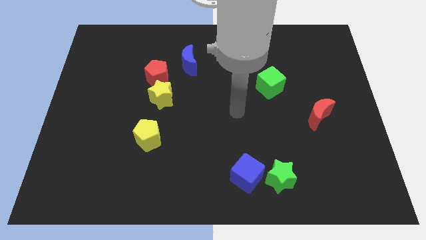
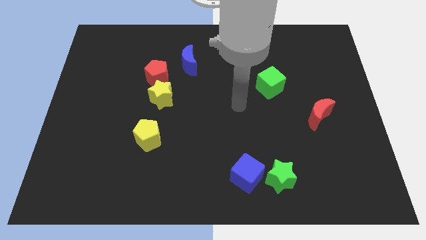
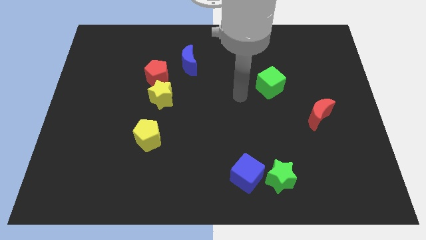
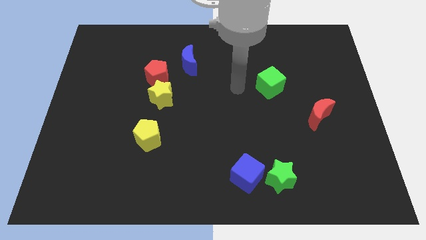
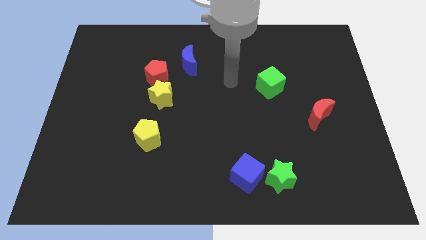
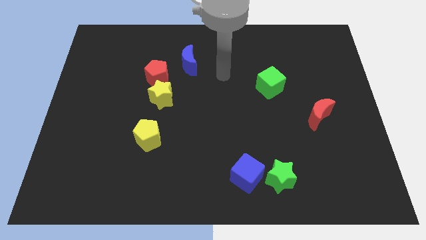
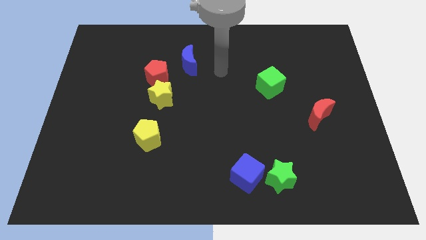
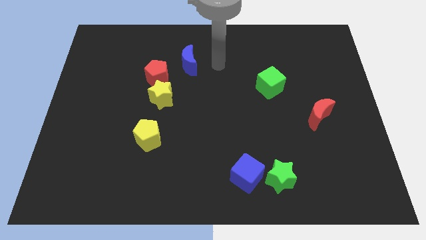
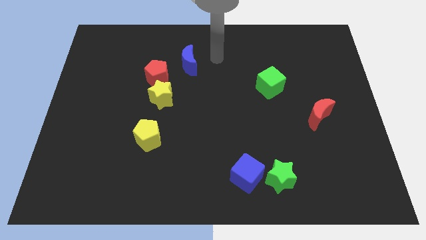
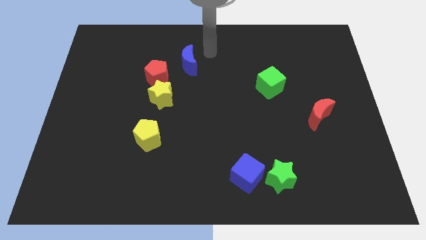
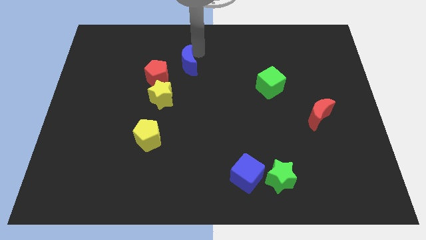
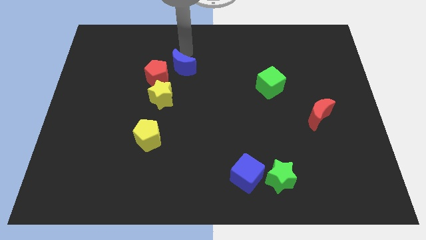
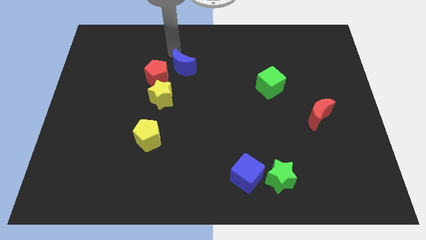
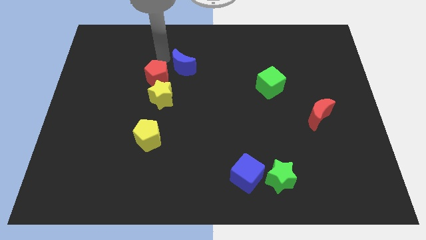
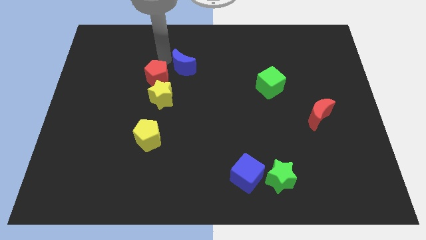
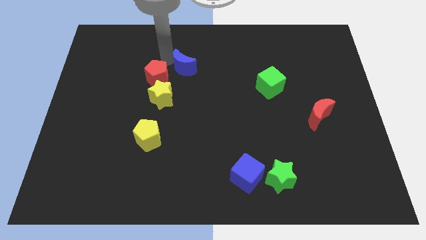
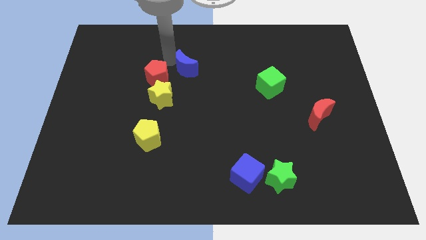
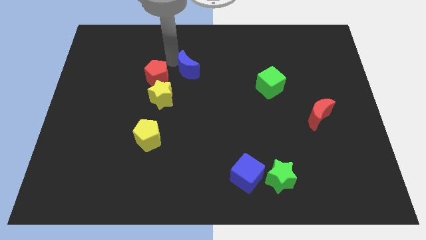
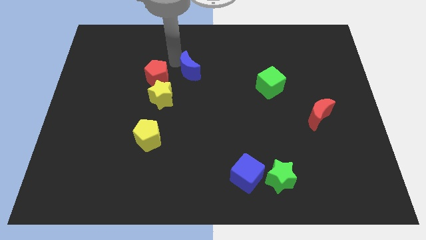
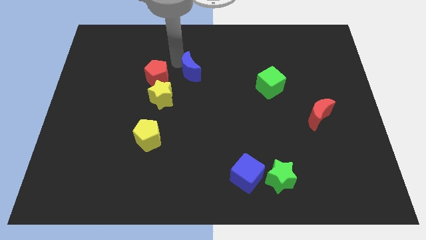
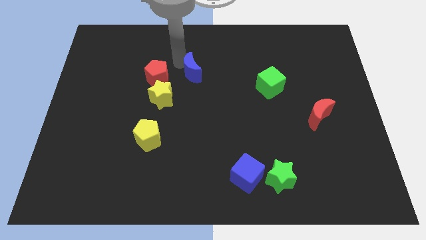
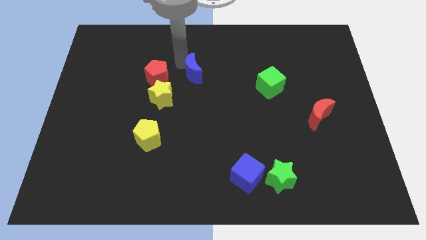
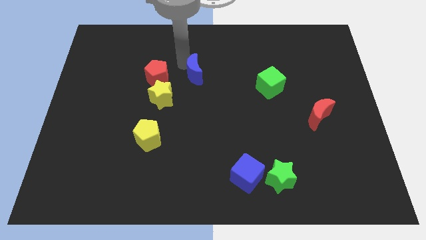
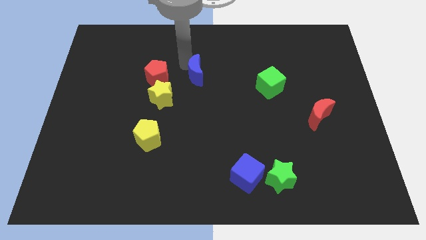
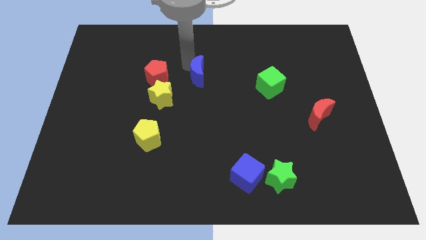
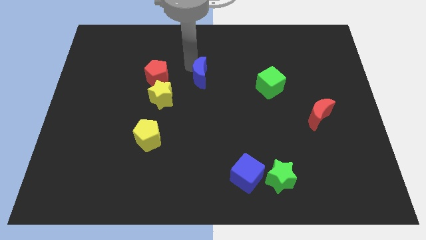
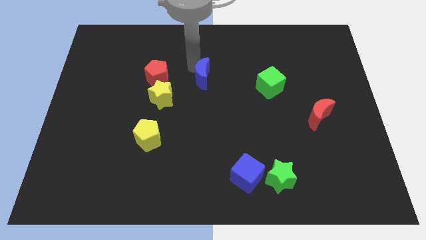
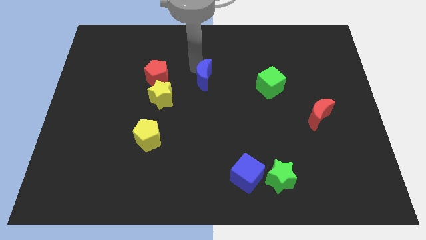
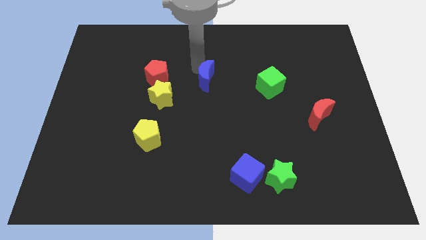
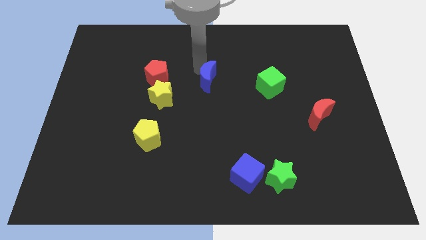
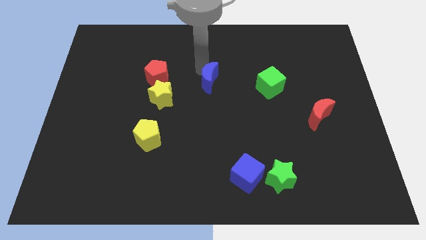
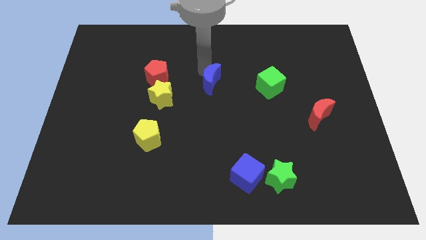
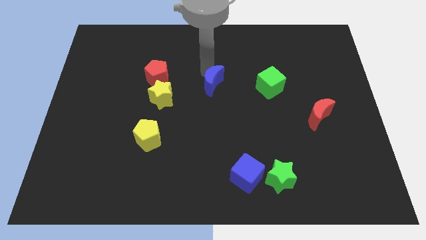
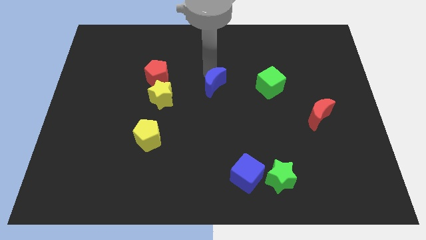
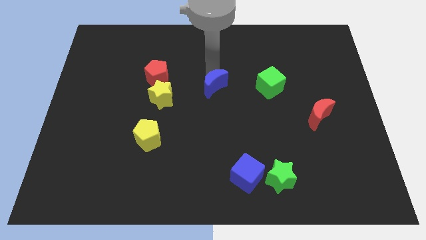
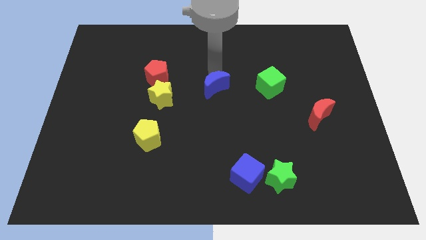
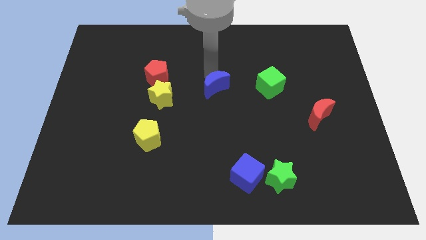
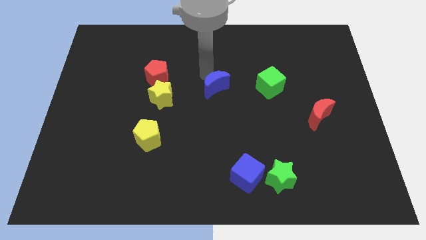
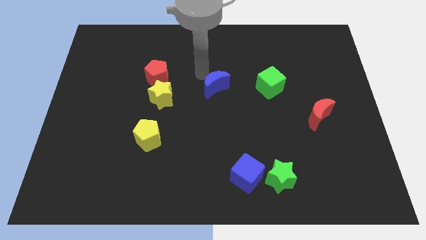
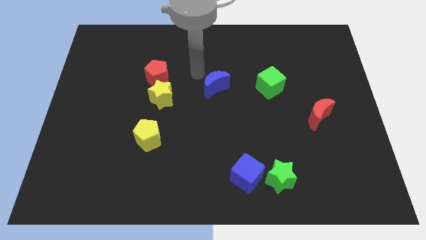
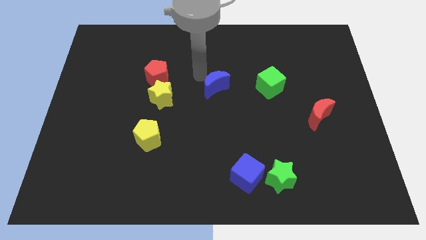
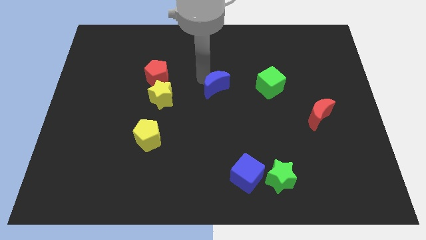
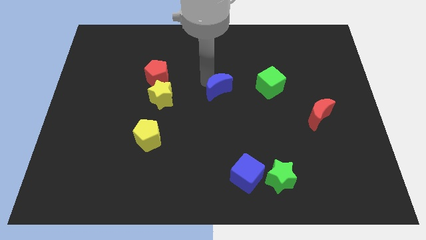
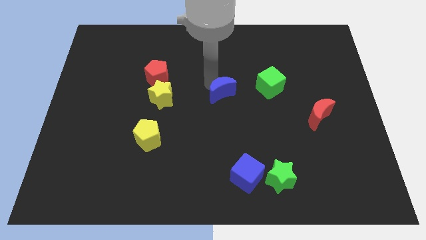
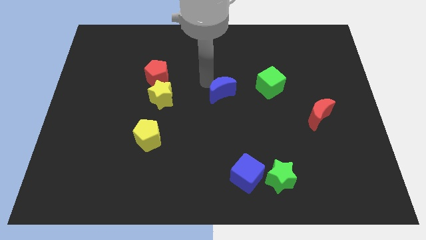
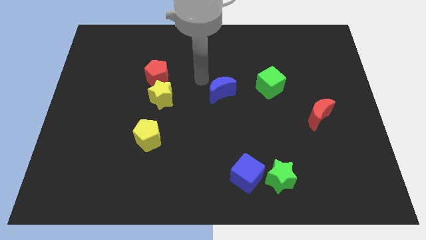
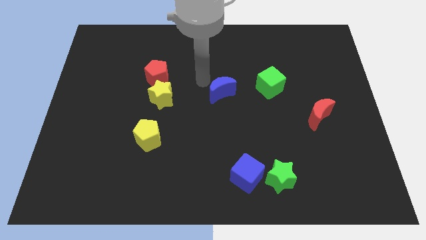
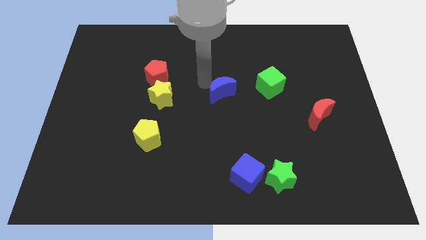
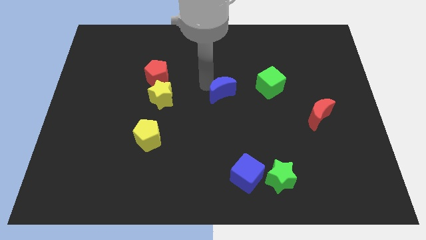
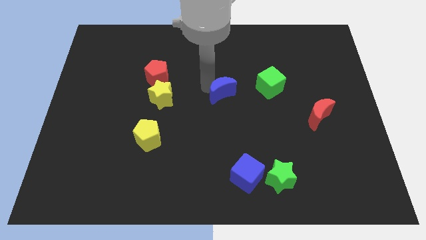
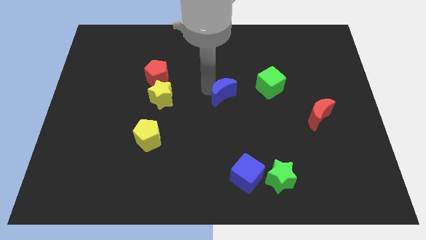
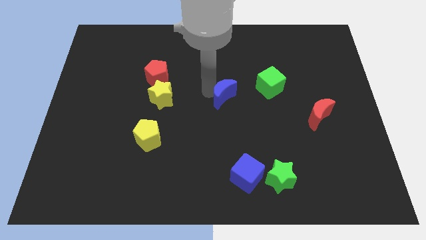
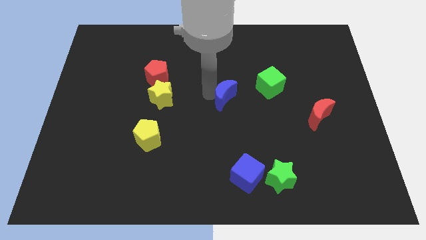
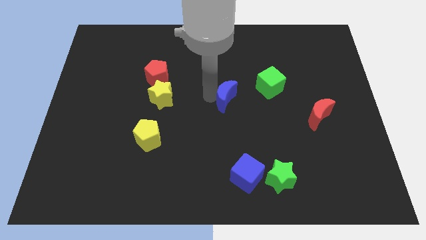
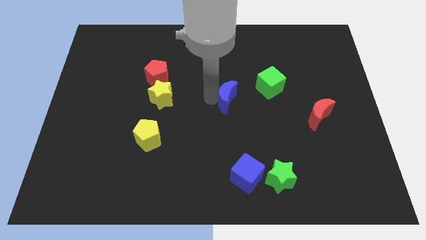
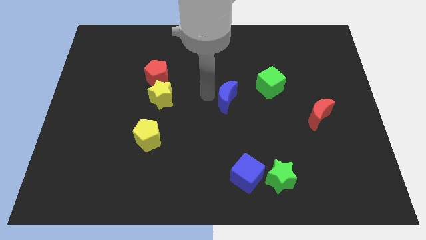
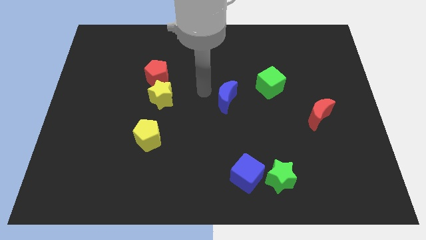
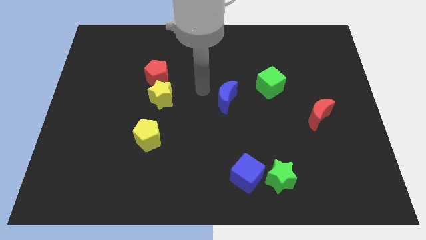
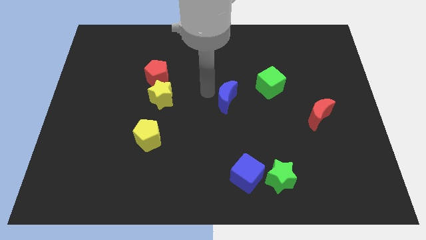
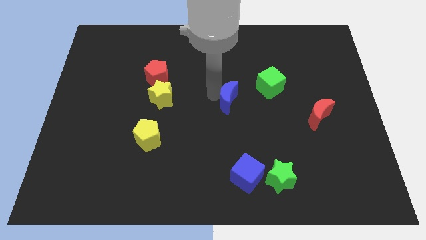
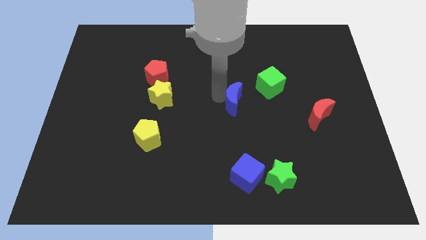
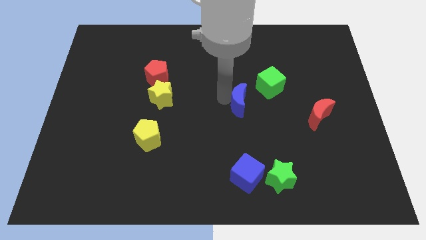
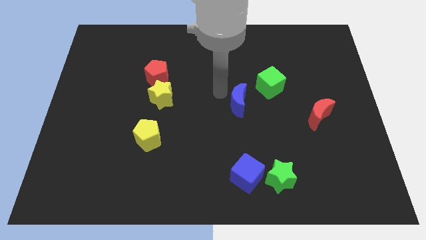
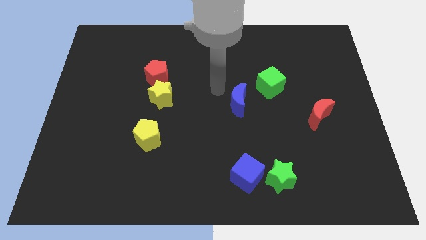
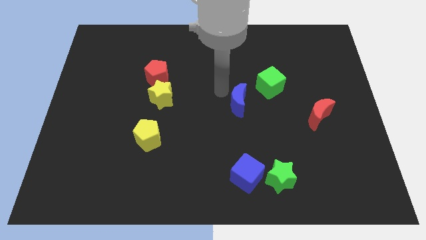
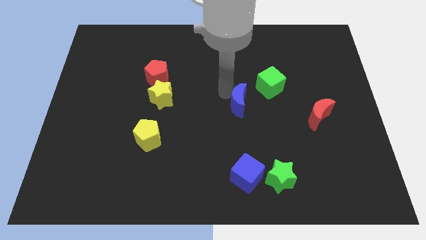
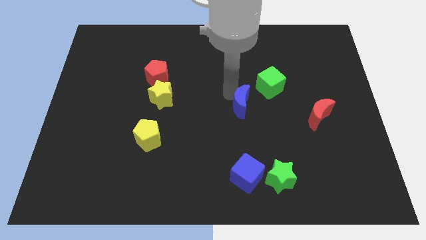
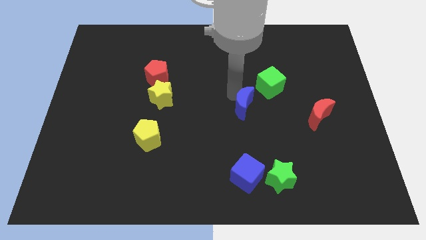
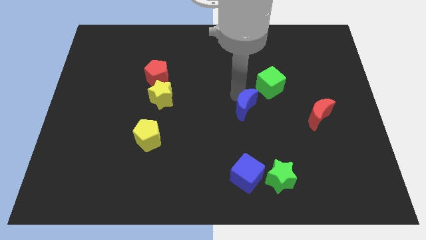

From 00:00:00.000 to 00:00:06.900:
push the blue moon down and to the right diagonally

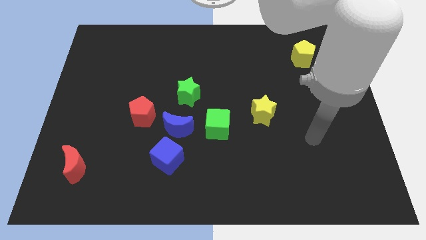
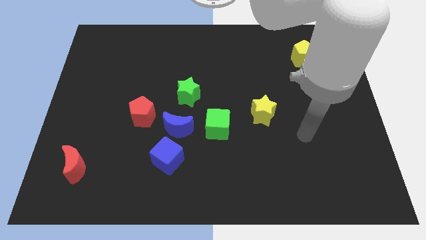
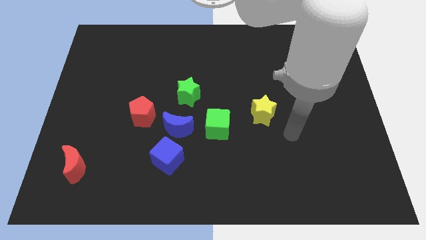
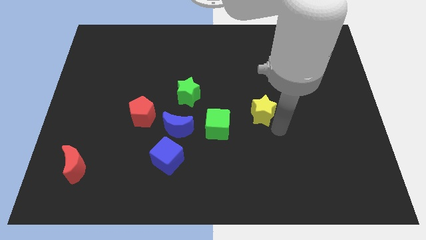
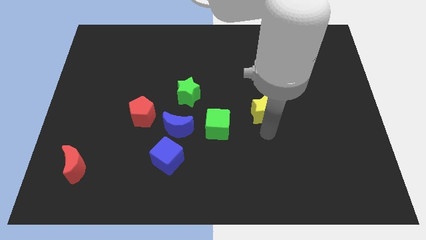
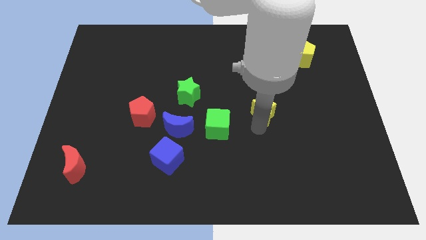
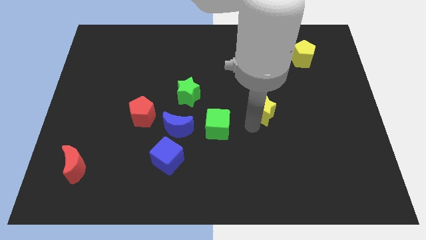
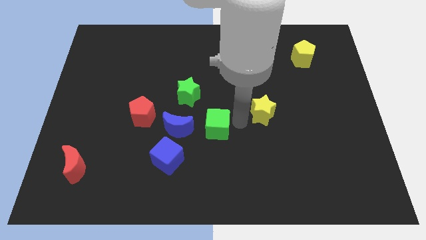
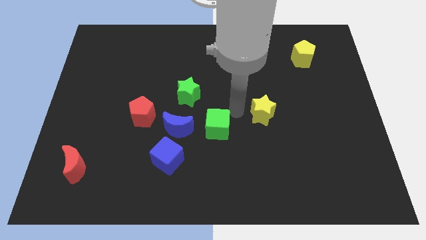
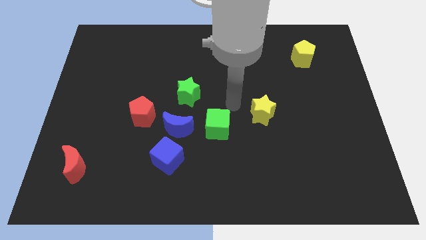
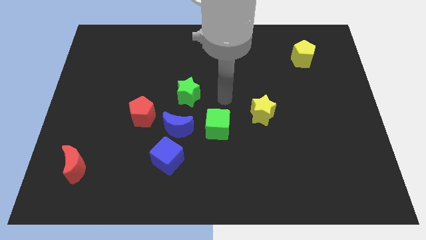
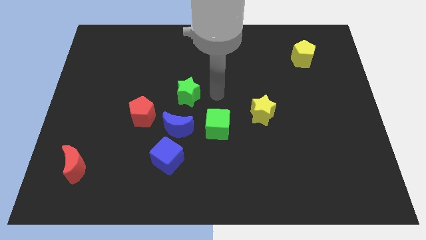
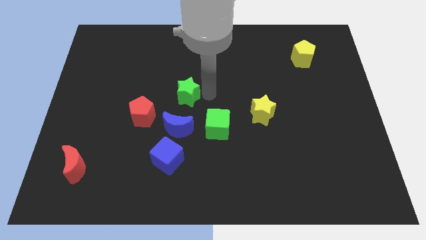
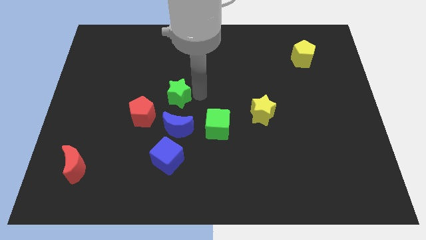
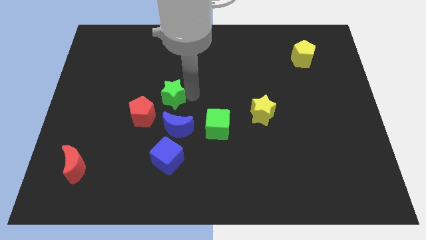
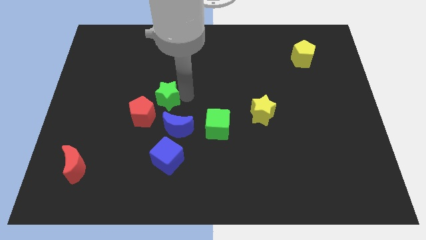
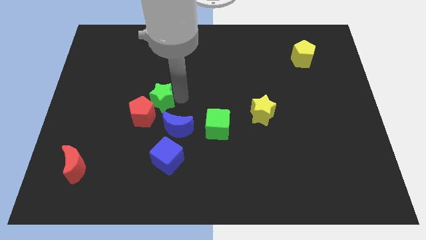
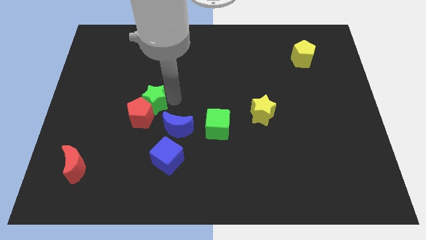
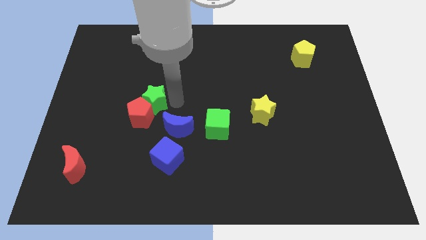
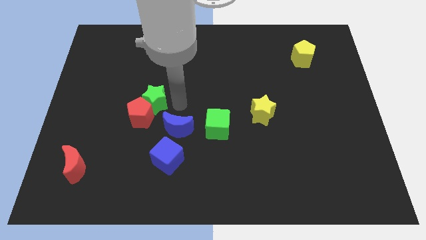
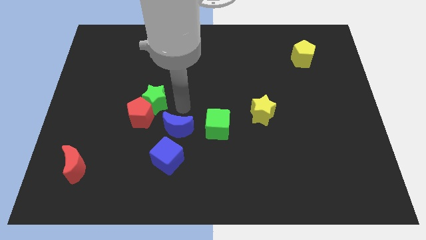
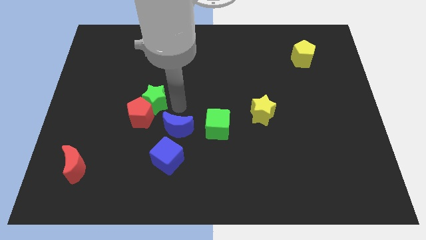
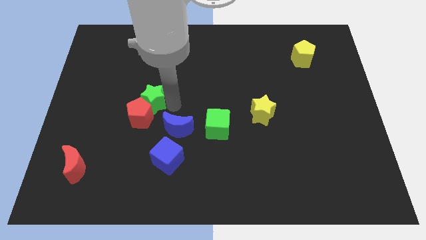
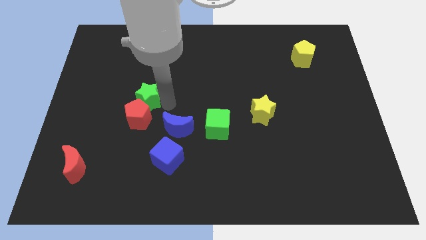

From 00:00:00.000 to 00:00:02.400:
slightly slide the green star downwards and then to the left
